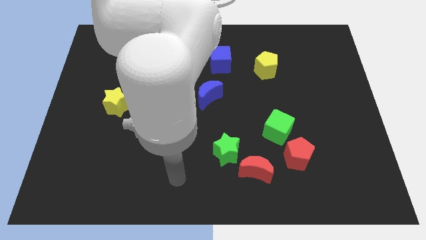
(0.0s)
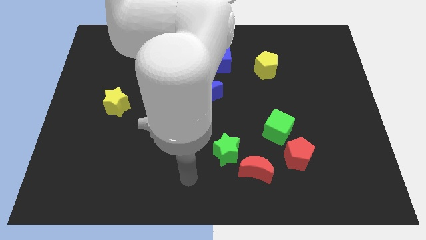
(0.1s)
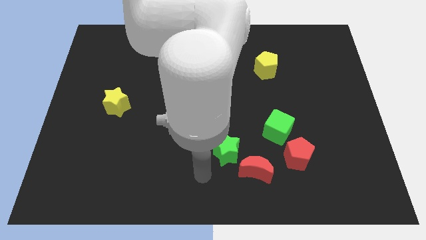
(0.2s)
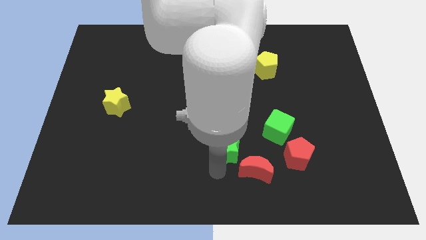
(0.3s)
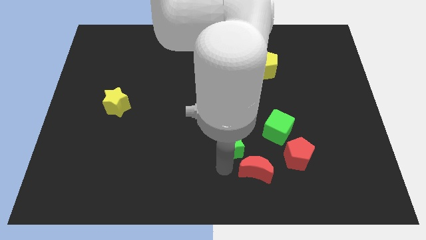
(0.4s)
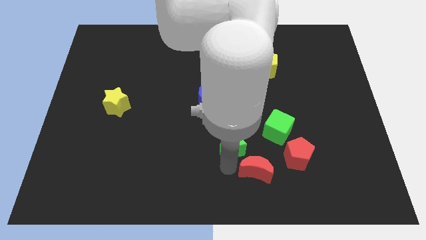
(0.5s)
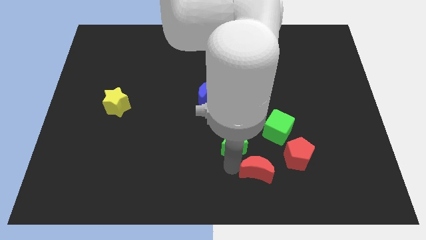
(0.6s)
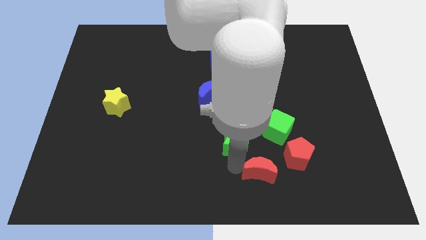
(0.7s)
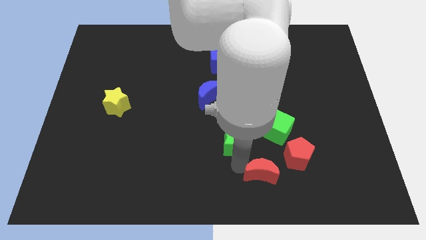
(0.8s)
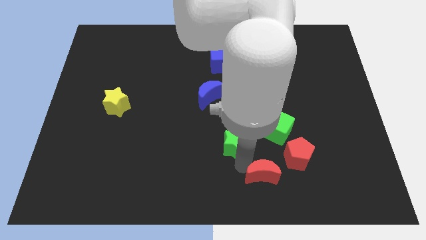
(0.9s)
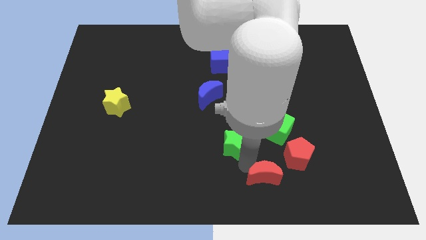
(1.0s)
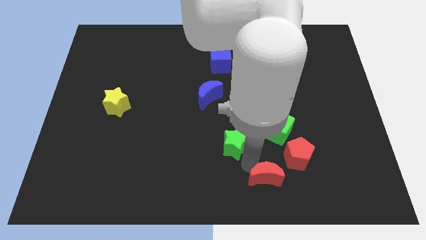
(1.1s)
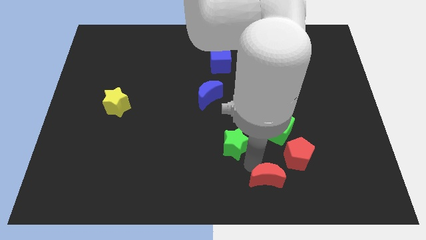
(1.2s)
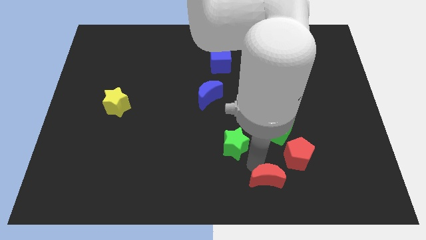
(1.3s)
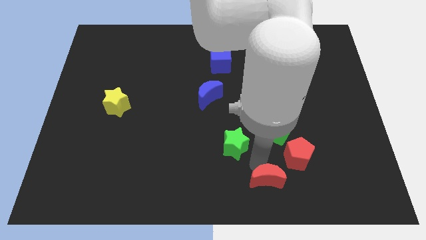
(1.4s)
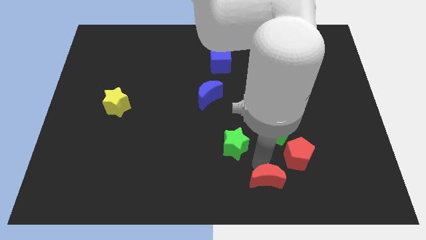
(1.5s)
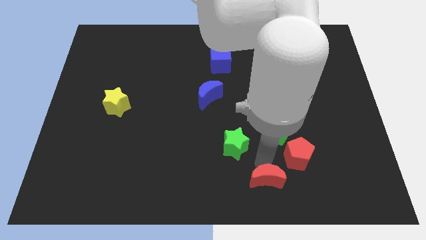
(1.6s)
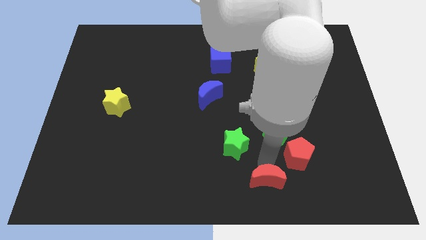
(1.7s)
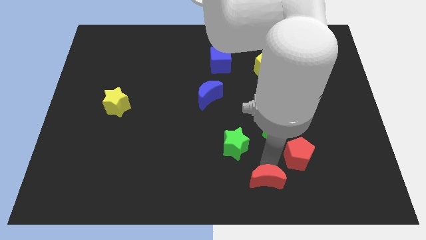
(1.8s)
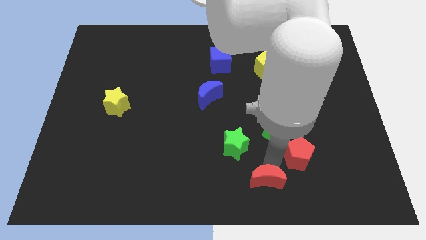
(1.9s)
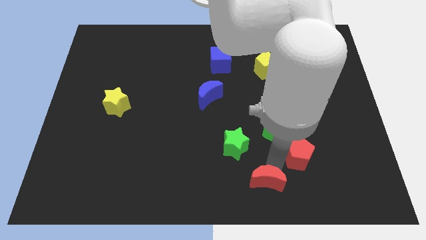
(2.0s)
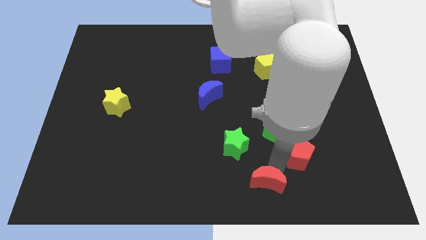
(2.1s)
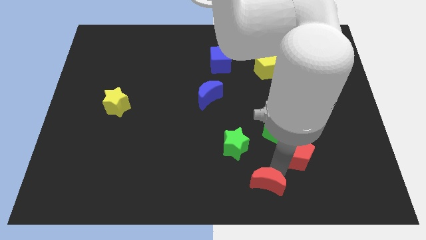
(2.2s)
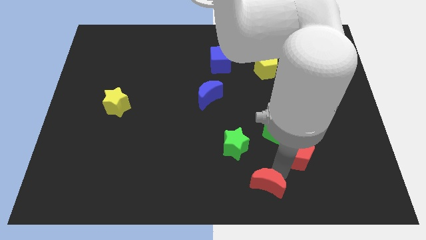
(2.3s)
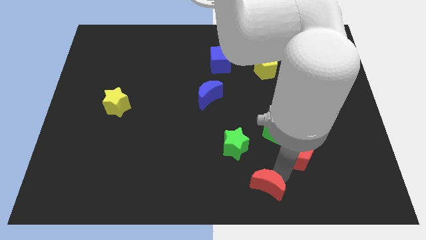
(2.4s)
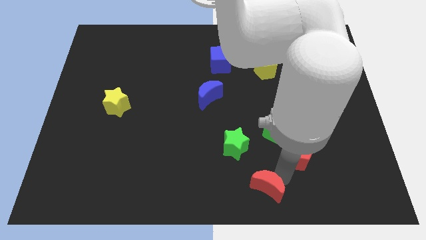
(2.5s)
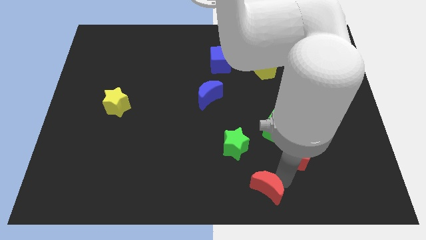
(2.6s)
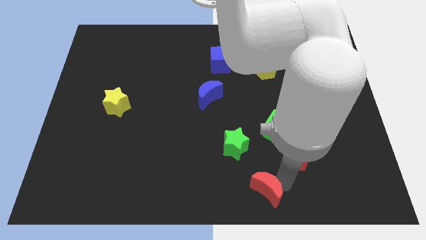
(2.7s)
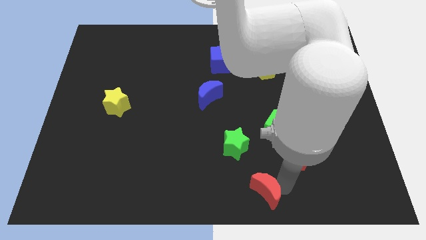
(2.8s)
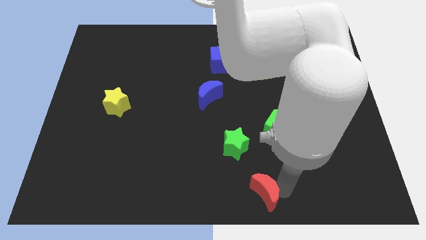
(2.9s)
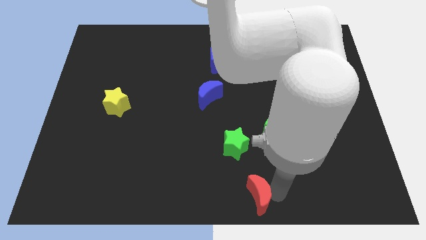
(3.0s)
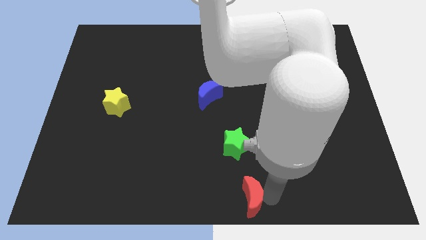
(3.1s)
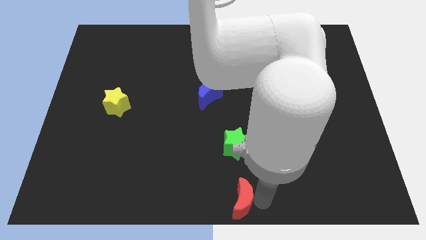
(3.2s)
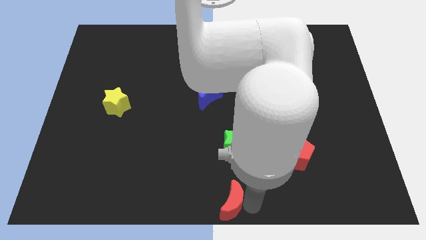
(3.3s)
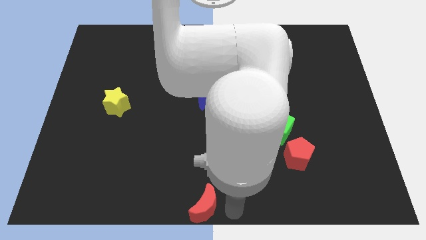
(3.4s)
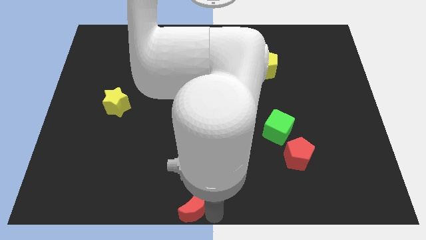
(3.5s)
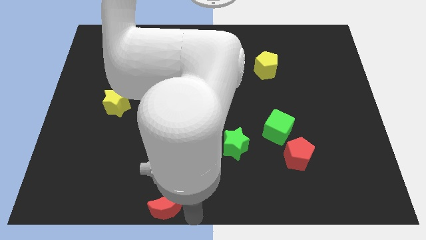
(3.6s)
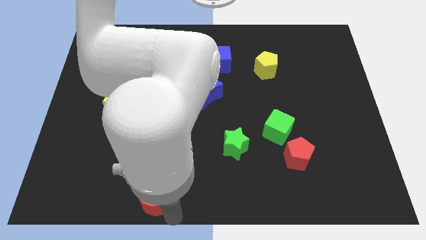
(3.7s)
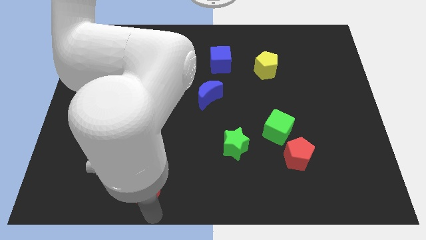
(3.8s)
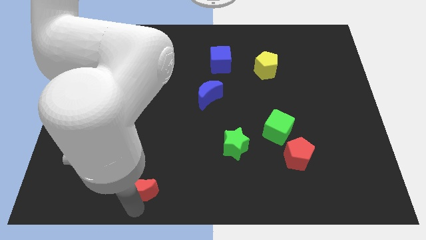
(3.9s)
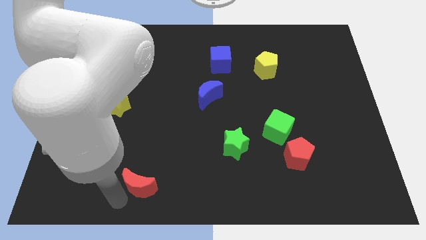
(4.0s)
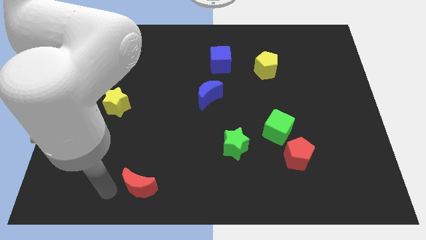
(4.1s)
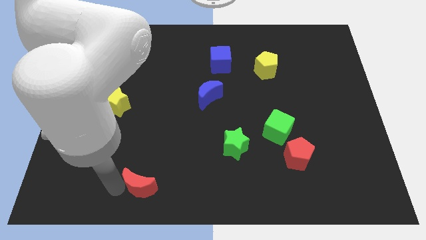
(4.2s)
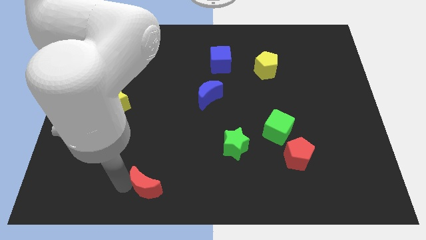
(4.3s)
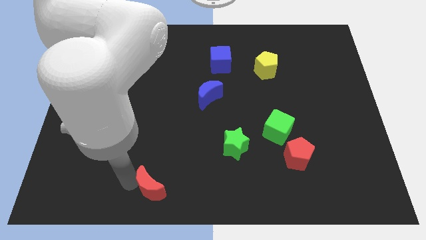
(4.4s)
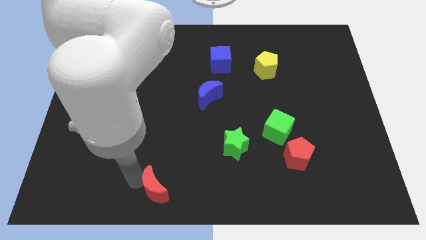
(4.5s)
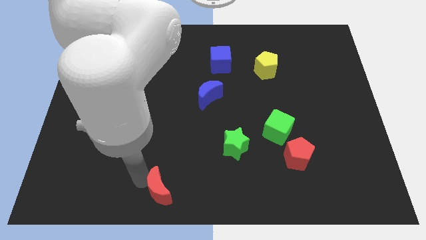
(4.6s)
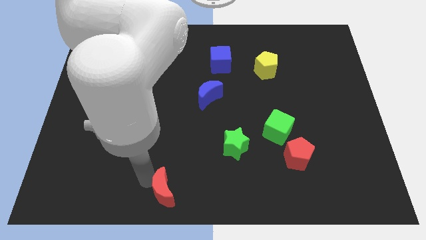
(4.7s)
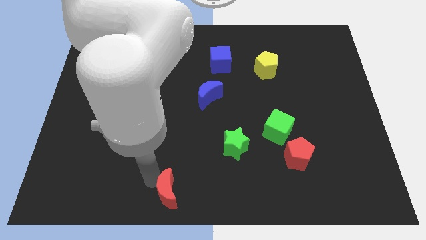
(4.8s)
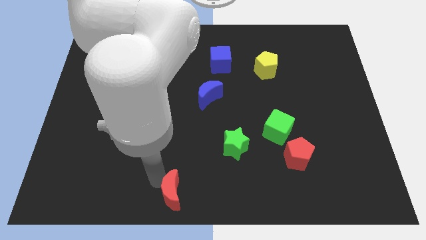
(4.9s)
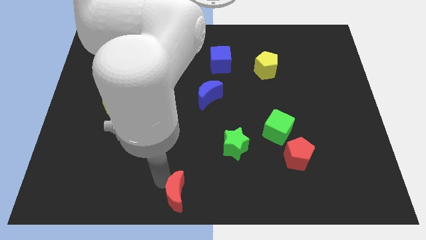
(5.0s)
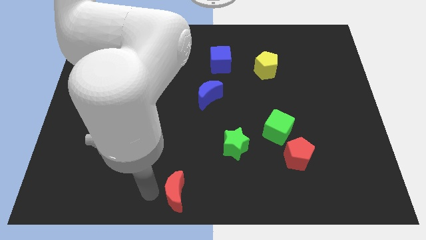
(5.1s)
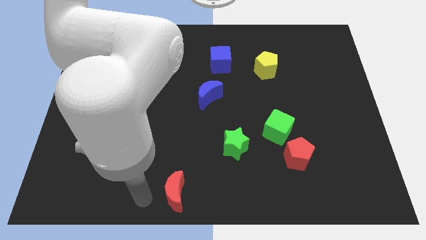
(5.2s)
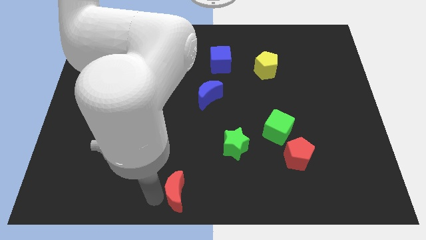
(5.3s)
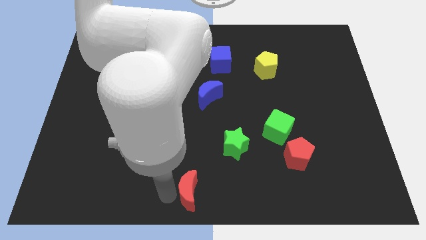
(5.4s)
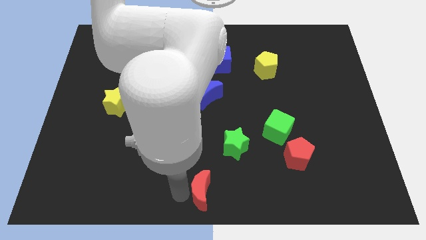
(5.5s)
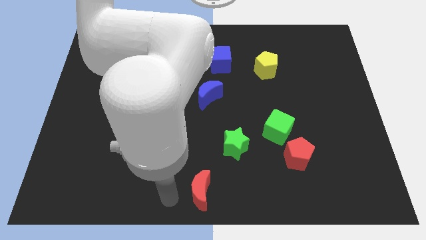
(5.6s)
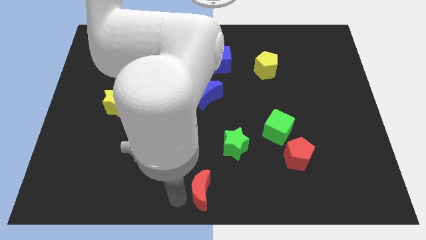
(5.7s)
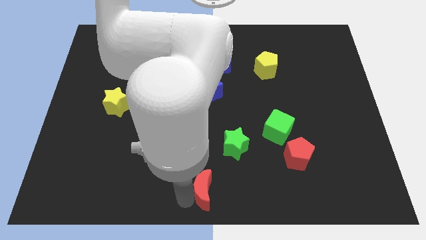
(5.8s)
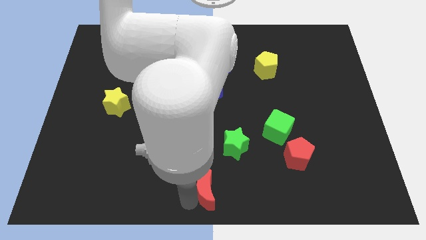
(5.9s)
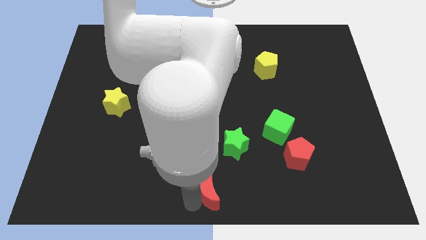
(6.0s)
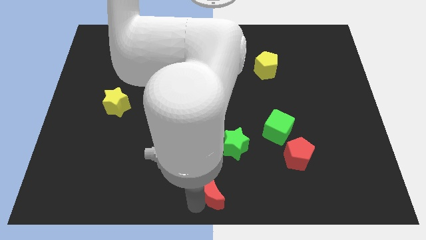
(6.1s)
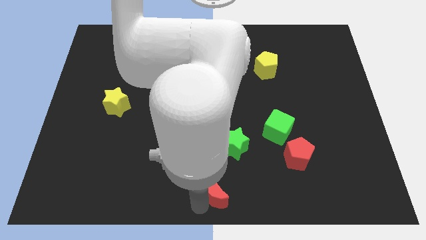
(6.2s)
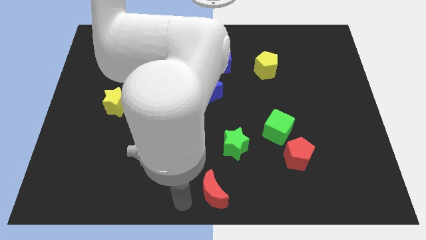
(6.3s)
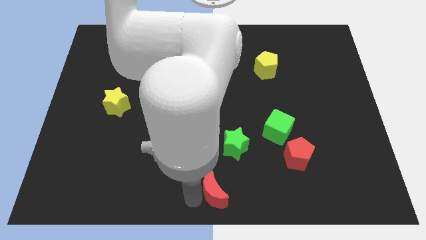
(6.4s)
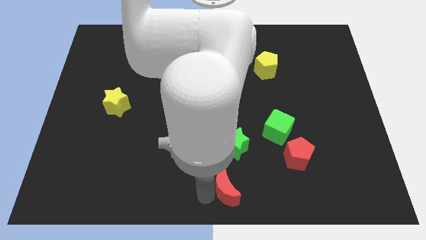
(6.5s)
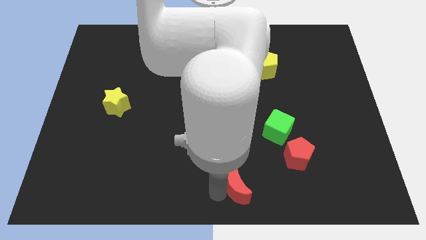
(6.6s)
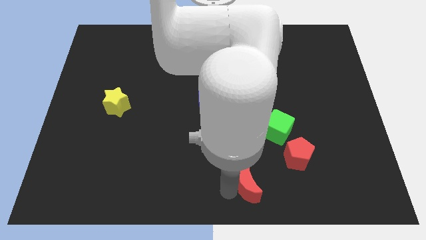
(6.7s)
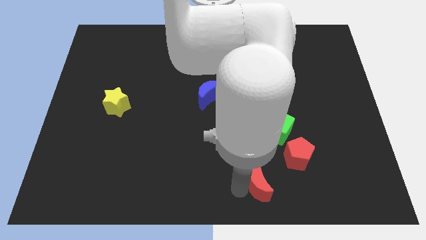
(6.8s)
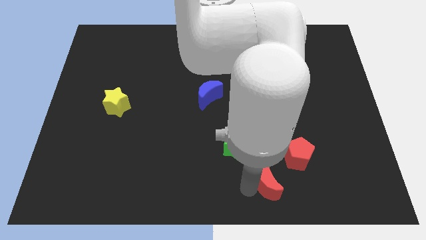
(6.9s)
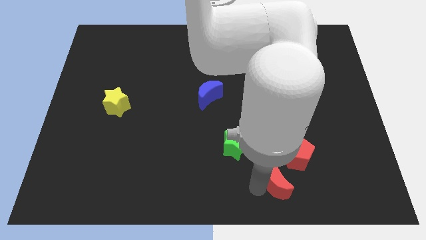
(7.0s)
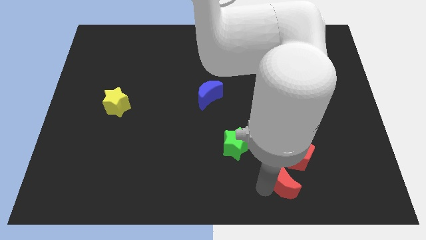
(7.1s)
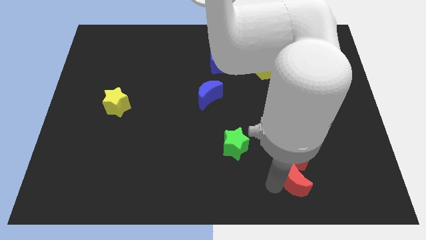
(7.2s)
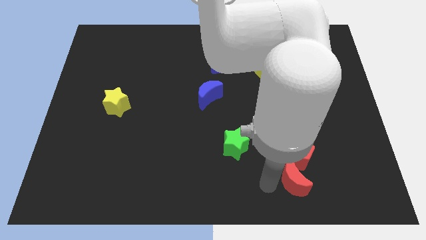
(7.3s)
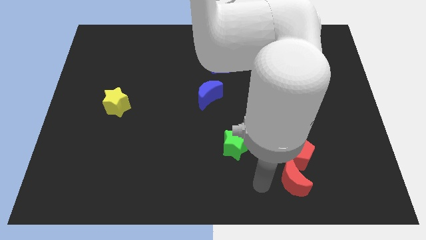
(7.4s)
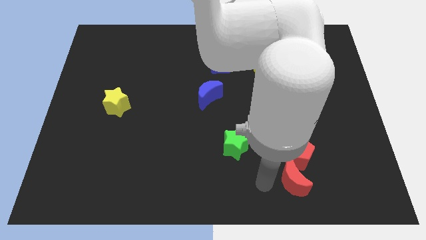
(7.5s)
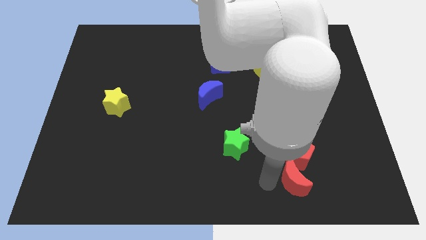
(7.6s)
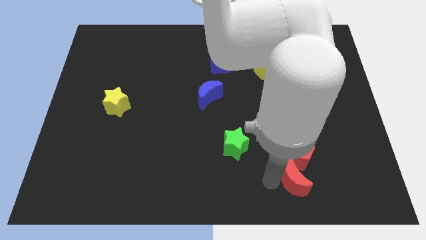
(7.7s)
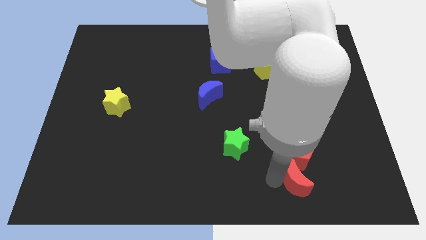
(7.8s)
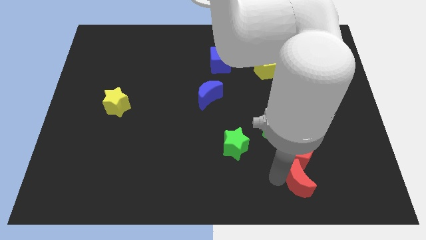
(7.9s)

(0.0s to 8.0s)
slide the red moon to the bottom right side of the red pentagon

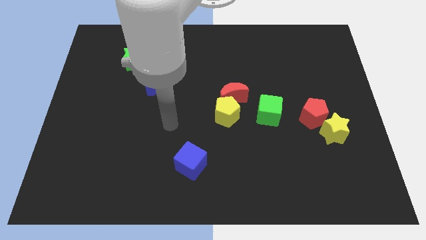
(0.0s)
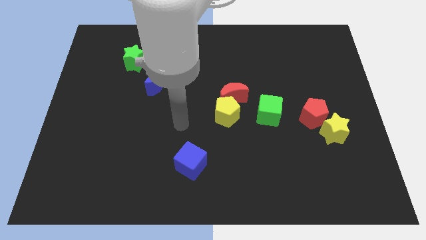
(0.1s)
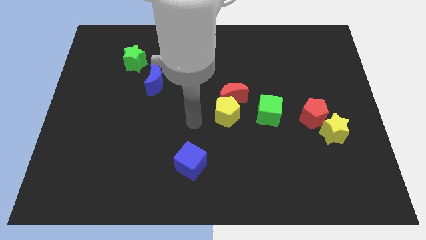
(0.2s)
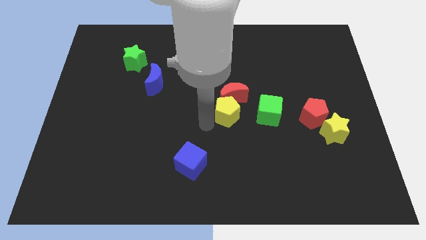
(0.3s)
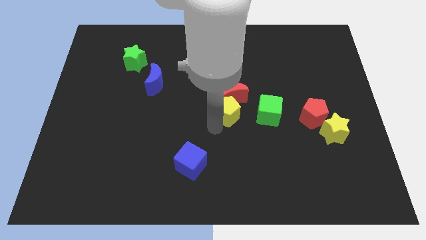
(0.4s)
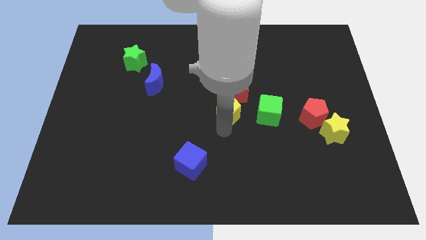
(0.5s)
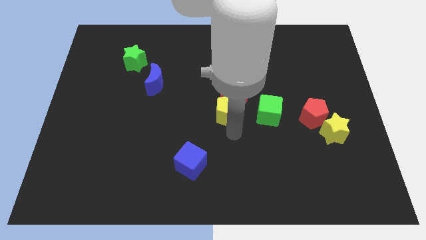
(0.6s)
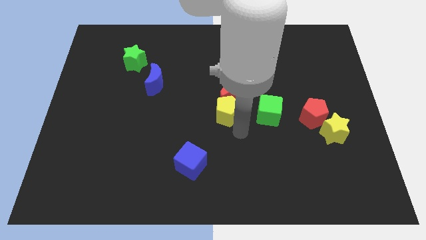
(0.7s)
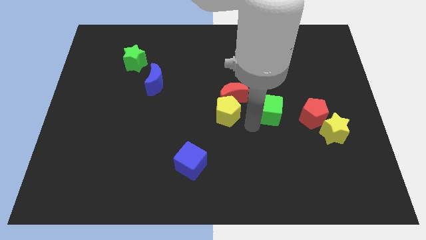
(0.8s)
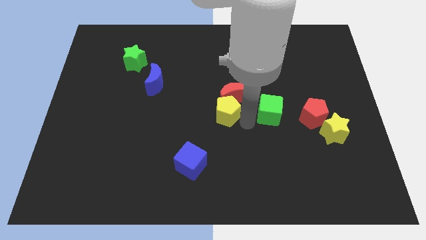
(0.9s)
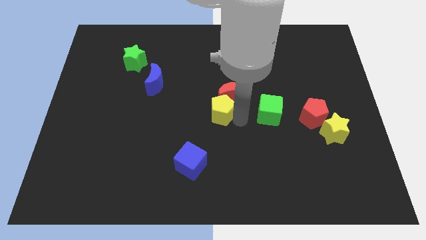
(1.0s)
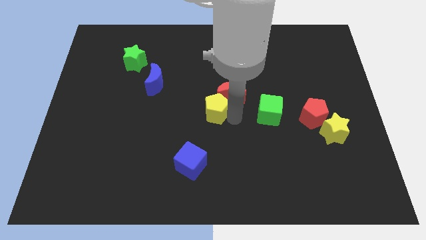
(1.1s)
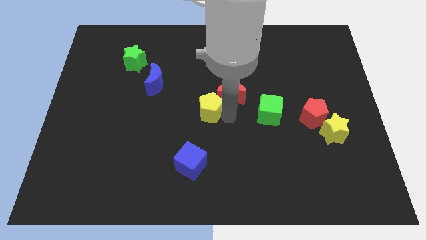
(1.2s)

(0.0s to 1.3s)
slide the yellow pentagon just left of the red moon
